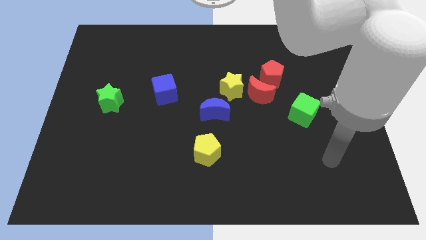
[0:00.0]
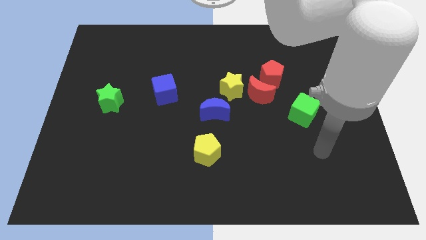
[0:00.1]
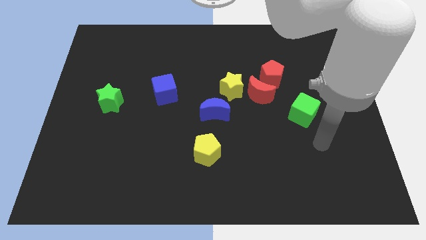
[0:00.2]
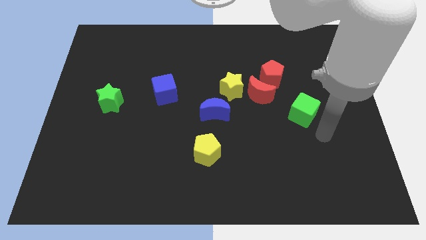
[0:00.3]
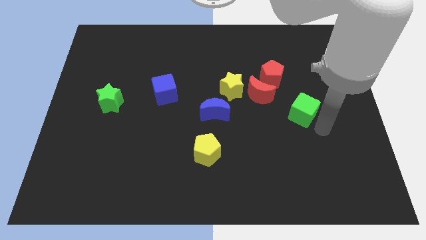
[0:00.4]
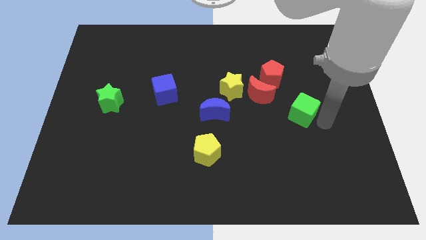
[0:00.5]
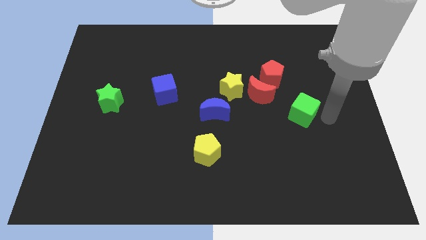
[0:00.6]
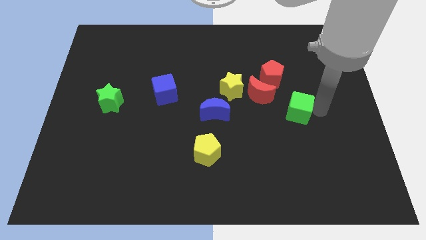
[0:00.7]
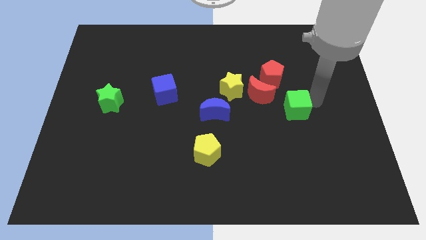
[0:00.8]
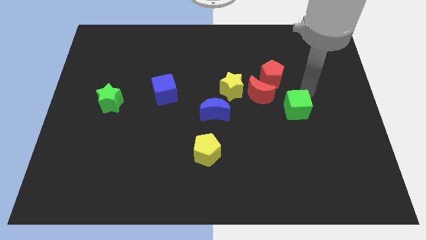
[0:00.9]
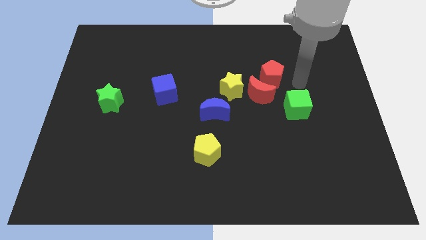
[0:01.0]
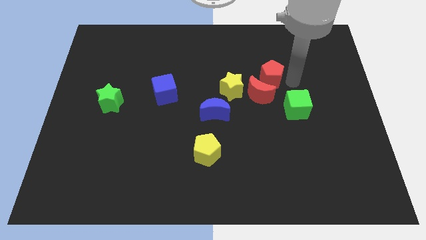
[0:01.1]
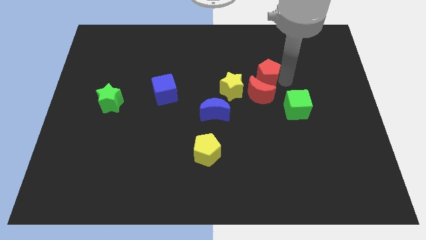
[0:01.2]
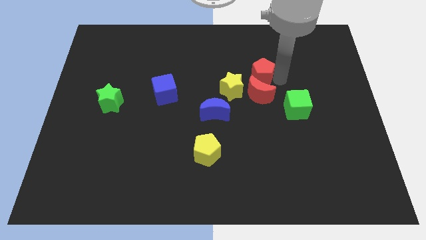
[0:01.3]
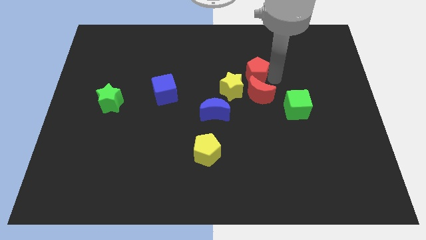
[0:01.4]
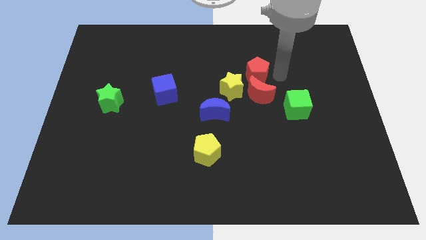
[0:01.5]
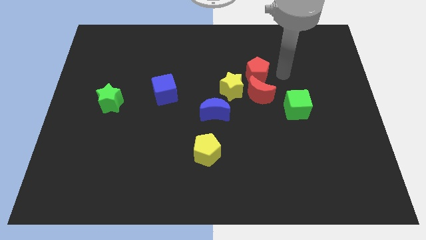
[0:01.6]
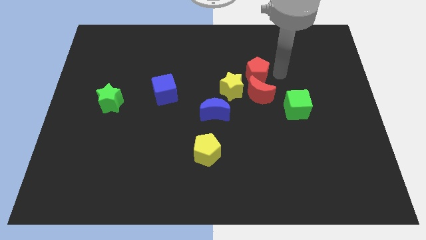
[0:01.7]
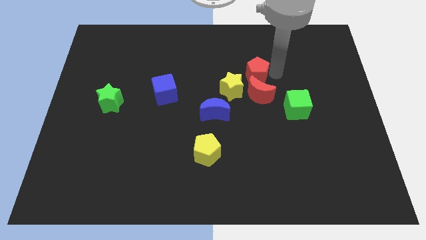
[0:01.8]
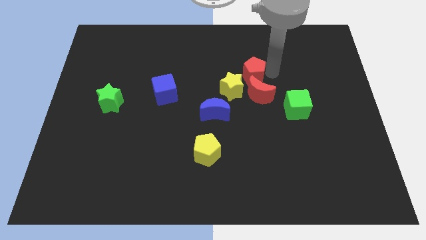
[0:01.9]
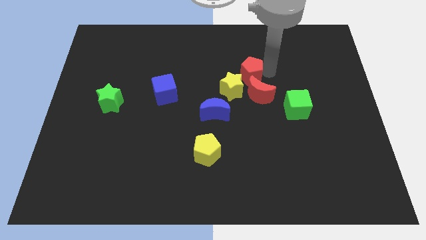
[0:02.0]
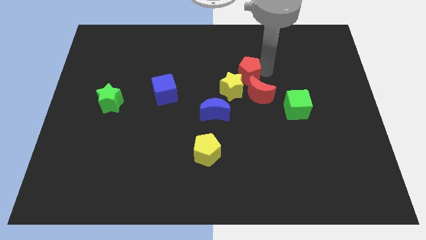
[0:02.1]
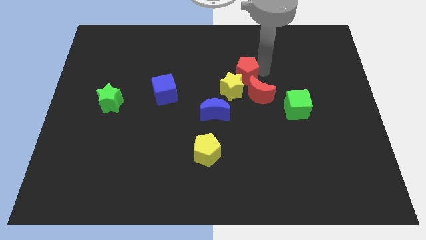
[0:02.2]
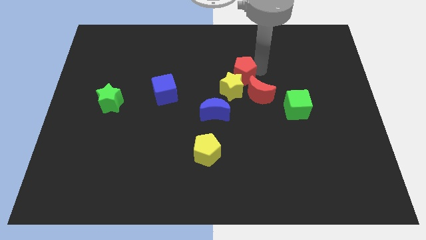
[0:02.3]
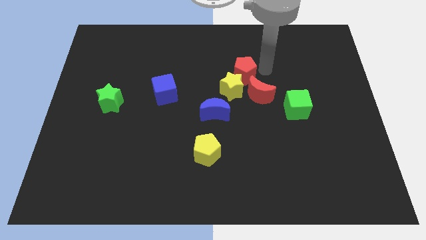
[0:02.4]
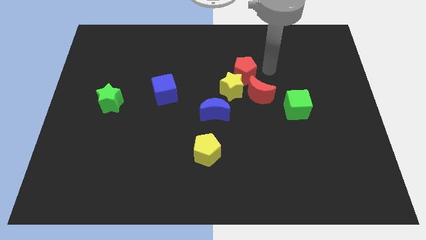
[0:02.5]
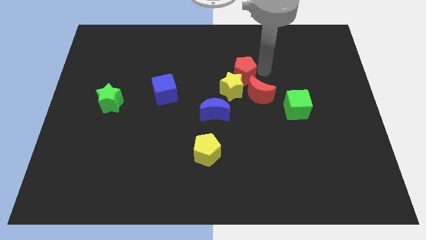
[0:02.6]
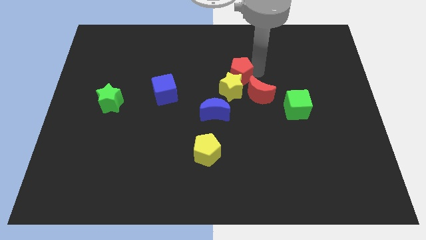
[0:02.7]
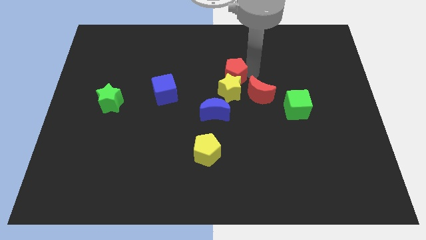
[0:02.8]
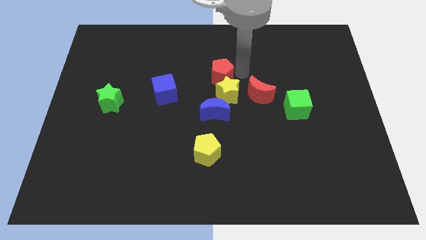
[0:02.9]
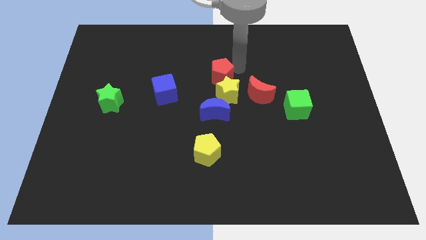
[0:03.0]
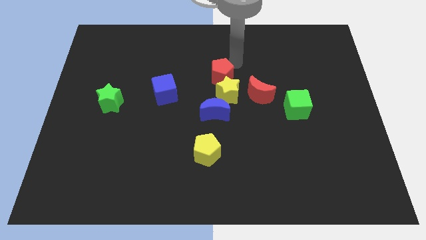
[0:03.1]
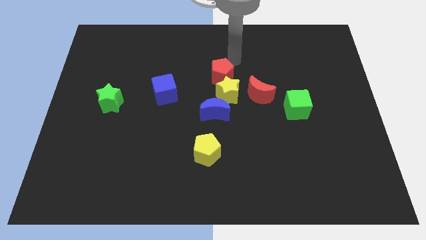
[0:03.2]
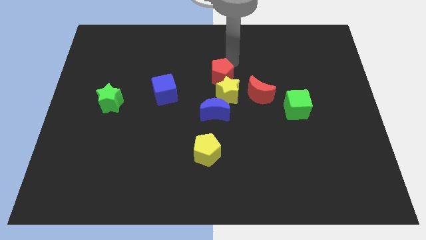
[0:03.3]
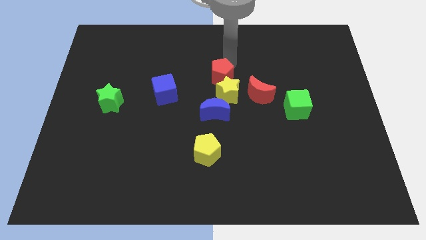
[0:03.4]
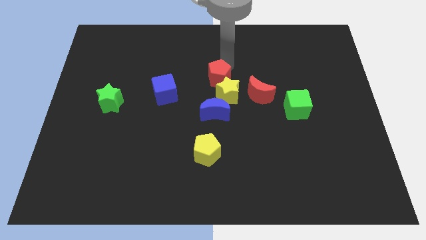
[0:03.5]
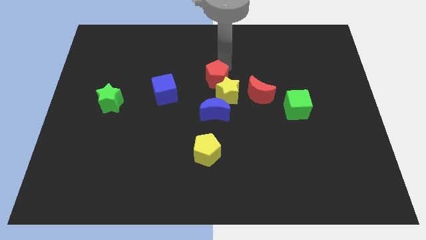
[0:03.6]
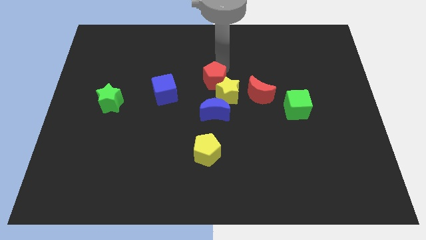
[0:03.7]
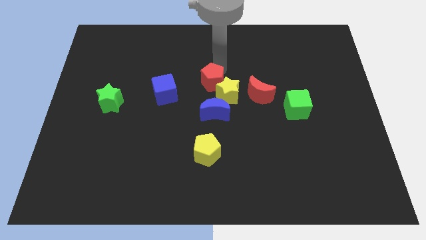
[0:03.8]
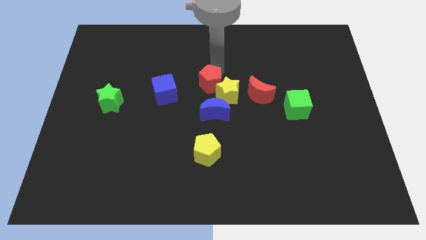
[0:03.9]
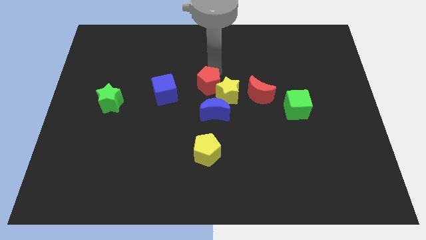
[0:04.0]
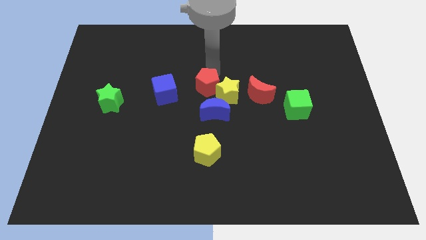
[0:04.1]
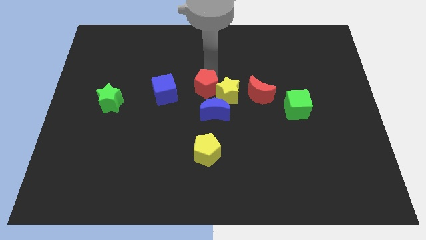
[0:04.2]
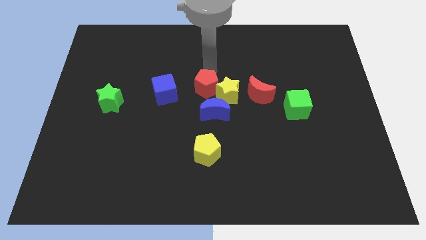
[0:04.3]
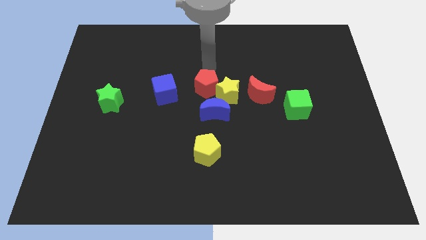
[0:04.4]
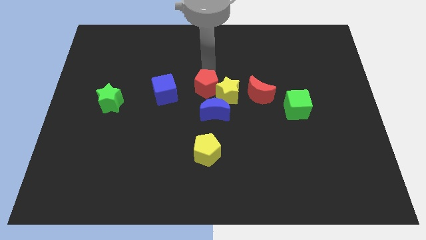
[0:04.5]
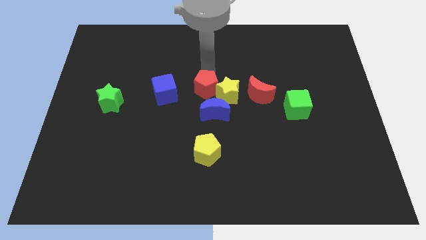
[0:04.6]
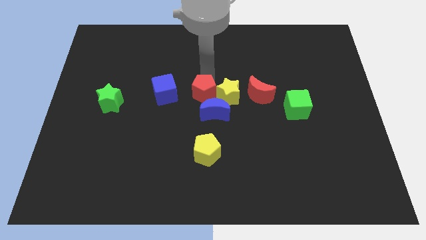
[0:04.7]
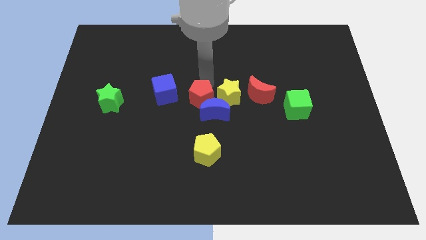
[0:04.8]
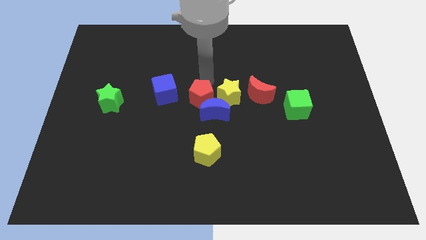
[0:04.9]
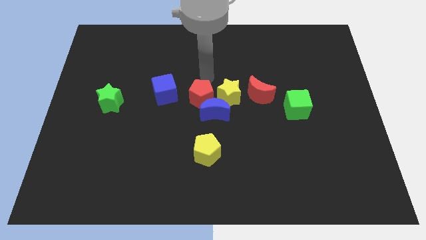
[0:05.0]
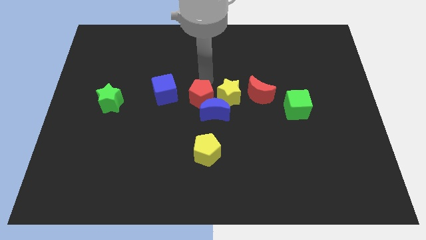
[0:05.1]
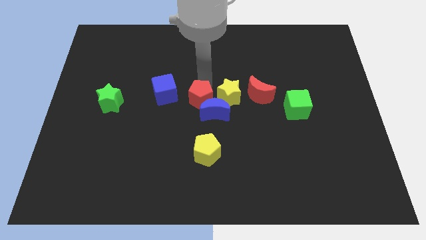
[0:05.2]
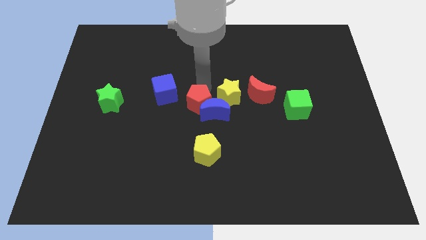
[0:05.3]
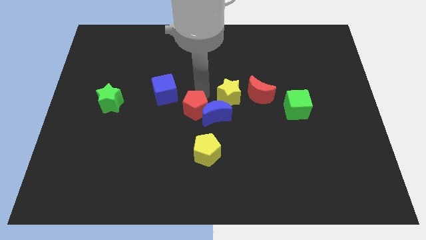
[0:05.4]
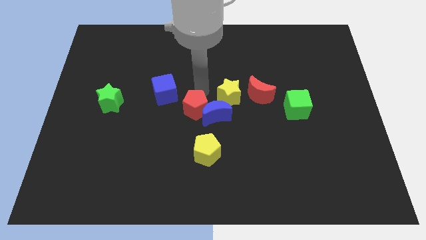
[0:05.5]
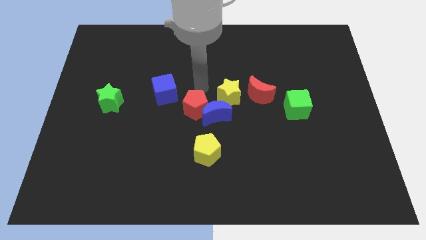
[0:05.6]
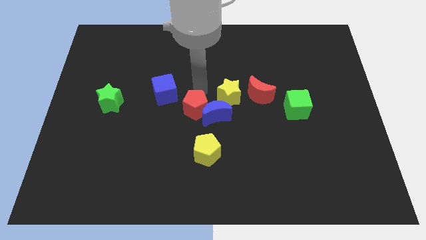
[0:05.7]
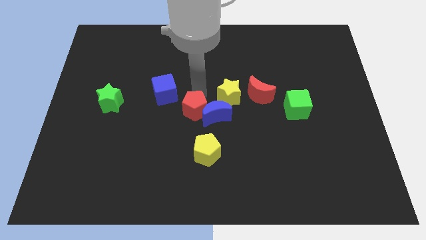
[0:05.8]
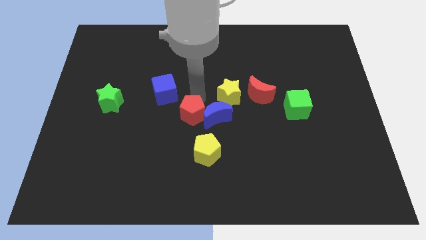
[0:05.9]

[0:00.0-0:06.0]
push the red pentagon downwards and left

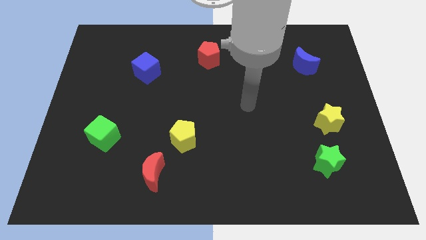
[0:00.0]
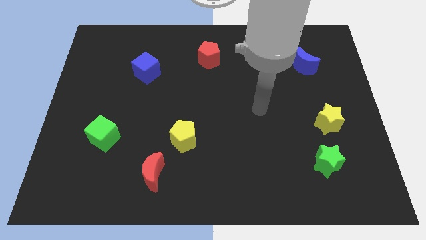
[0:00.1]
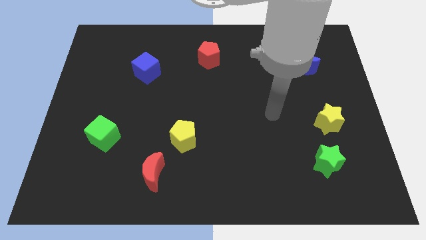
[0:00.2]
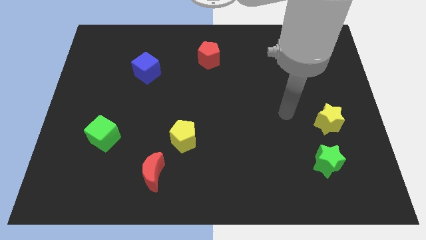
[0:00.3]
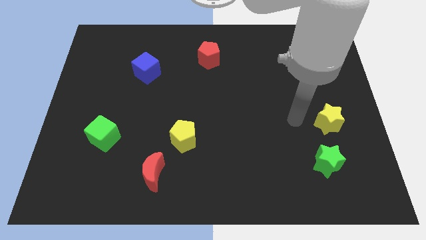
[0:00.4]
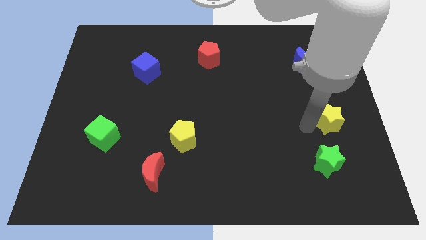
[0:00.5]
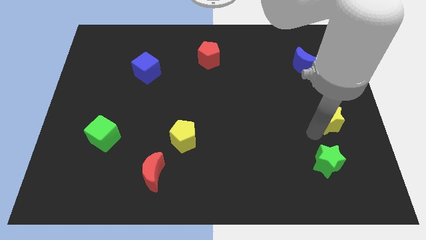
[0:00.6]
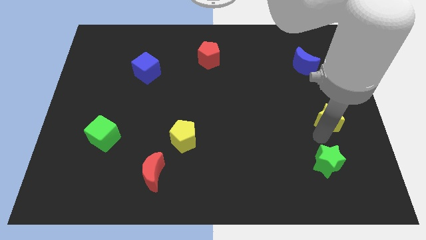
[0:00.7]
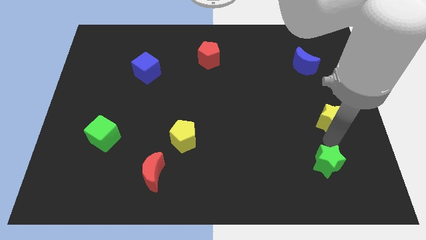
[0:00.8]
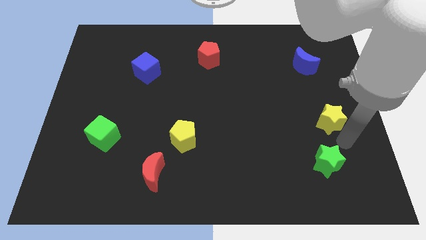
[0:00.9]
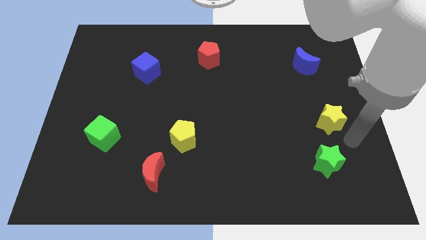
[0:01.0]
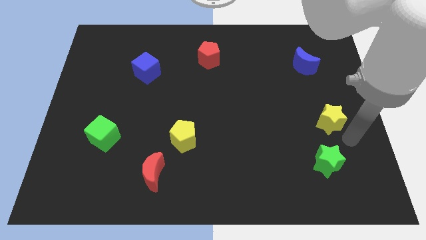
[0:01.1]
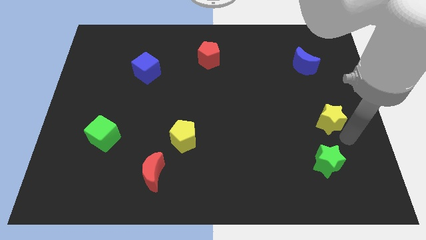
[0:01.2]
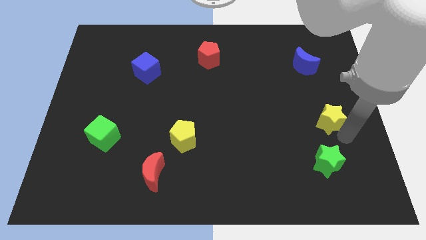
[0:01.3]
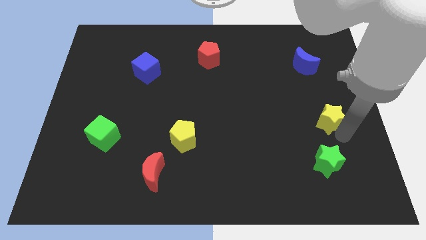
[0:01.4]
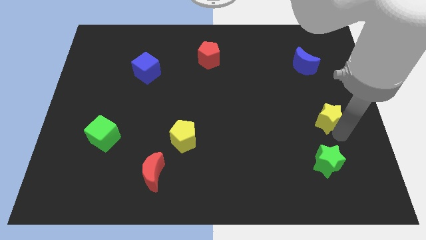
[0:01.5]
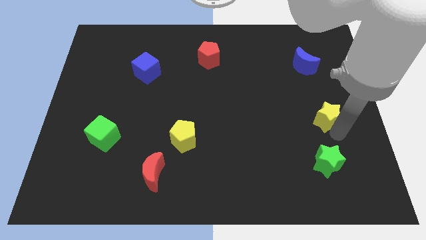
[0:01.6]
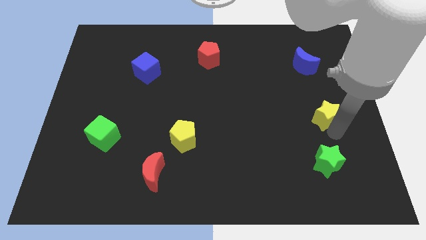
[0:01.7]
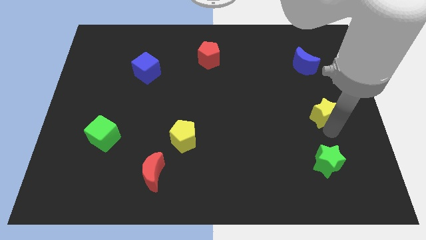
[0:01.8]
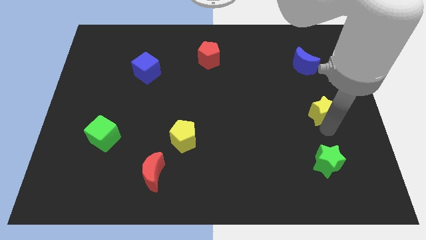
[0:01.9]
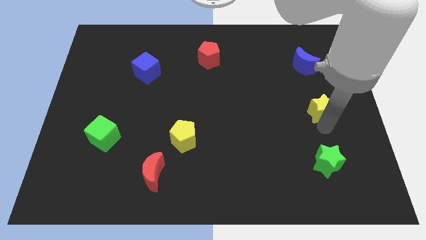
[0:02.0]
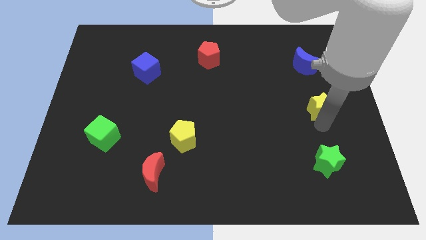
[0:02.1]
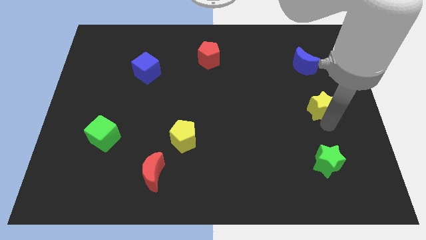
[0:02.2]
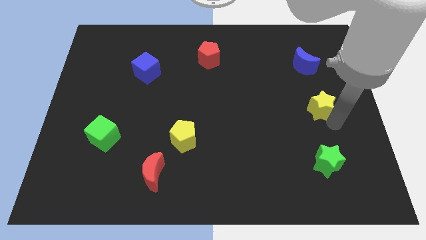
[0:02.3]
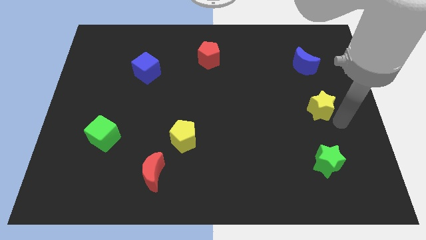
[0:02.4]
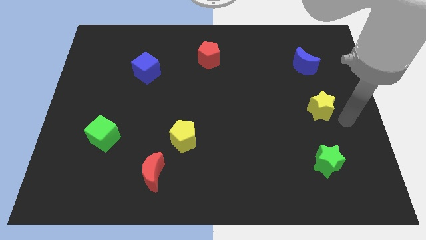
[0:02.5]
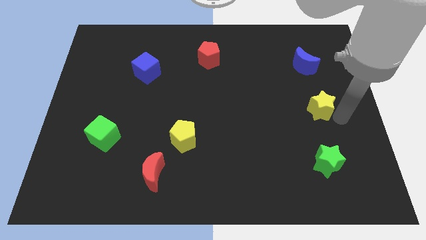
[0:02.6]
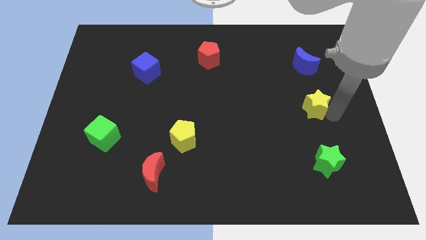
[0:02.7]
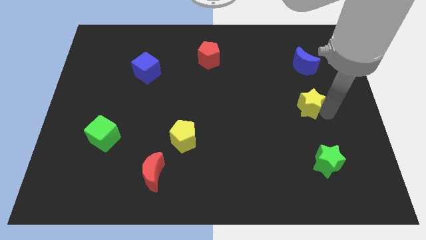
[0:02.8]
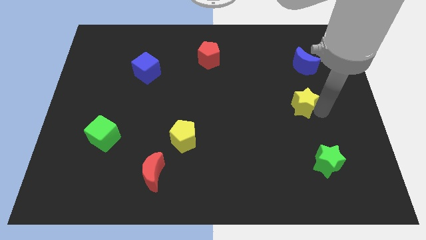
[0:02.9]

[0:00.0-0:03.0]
slide the yellow star slightly diagonally up and left
